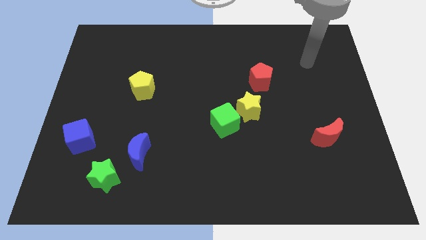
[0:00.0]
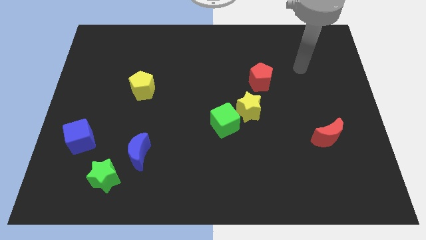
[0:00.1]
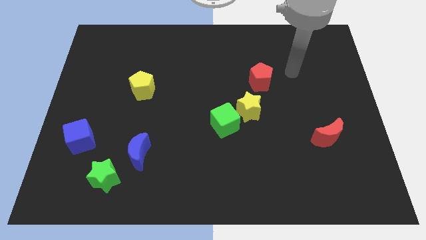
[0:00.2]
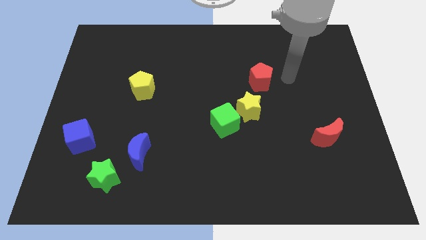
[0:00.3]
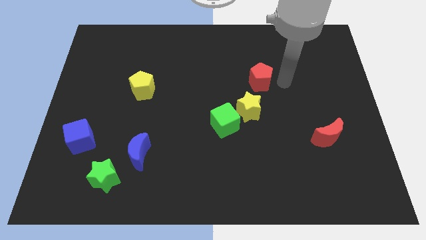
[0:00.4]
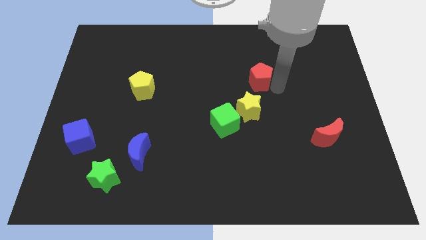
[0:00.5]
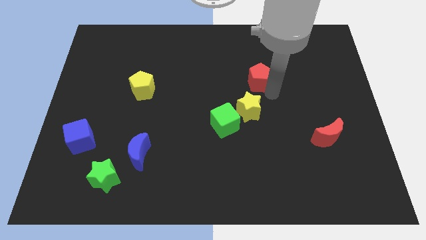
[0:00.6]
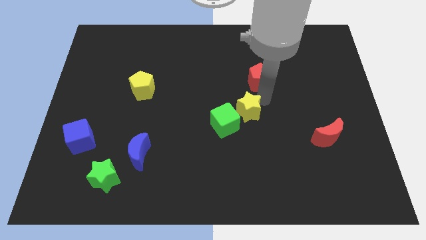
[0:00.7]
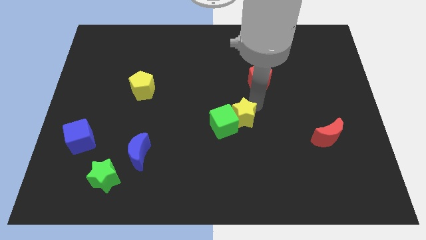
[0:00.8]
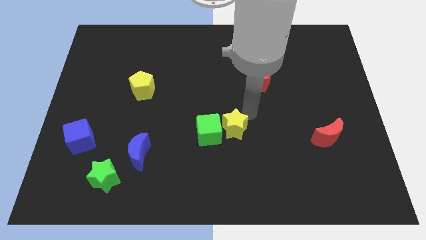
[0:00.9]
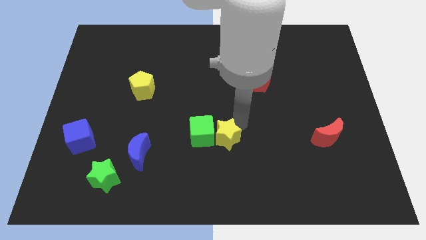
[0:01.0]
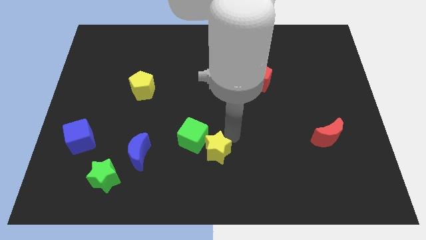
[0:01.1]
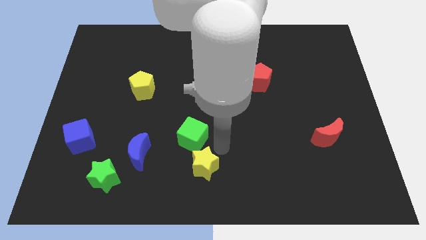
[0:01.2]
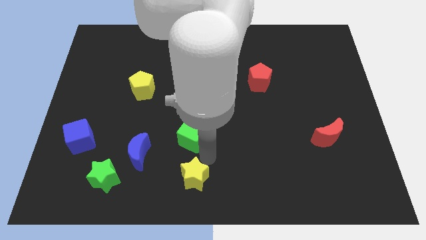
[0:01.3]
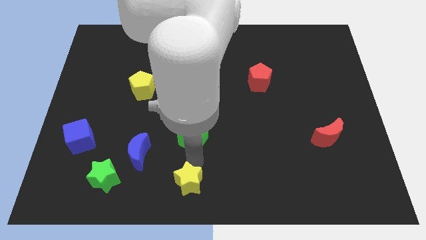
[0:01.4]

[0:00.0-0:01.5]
pull the green cube apart from the yellow star

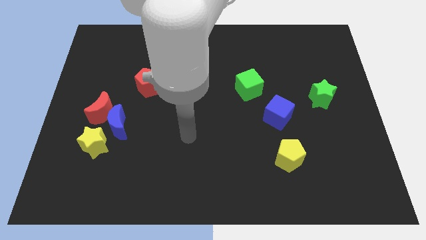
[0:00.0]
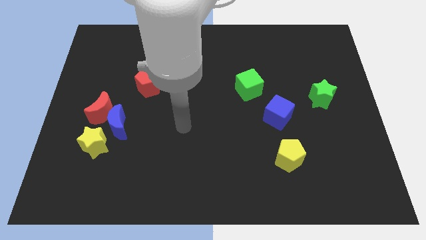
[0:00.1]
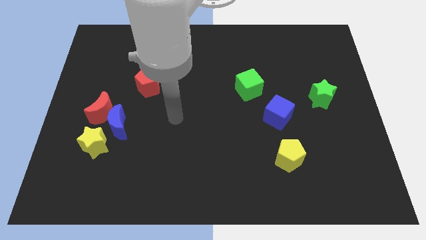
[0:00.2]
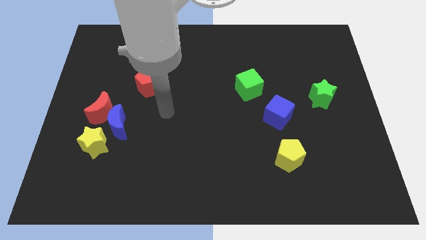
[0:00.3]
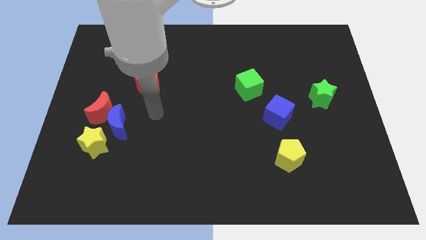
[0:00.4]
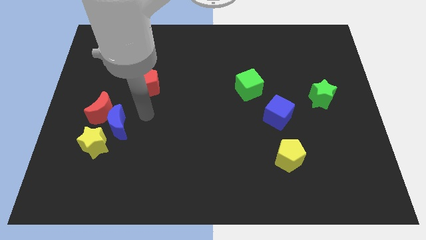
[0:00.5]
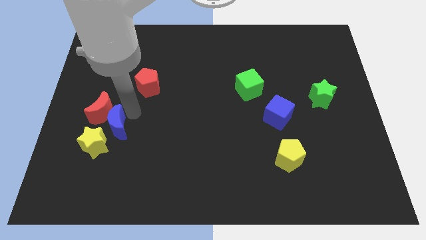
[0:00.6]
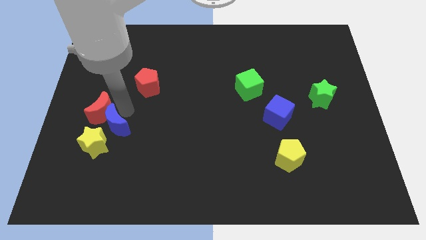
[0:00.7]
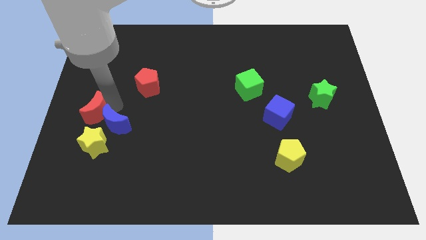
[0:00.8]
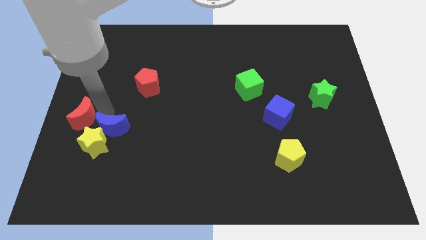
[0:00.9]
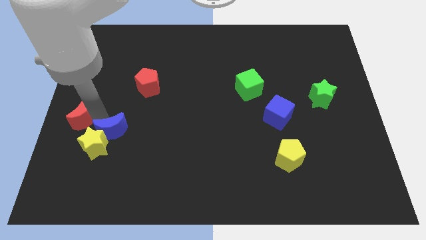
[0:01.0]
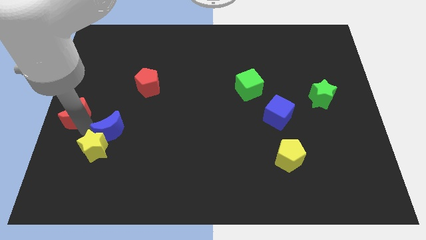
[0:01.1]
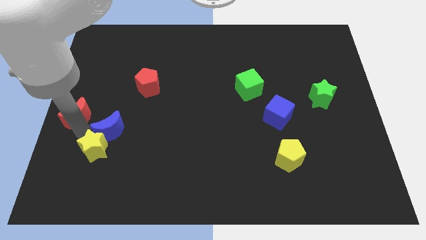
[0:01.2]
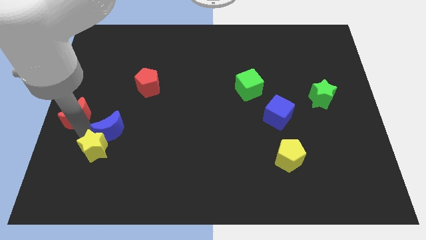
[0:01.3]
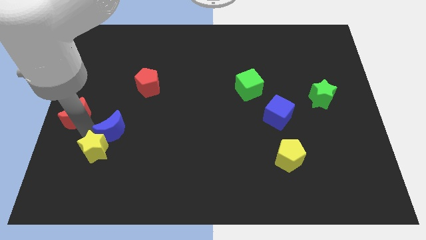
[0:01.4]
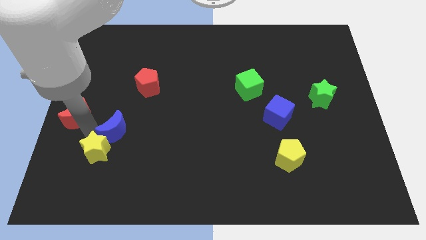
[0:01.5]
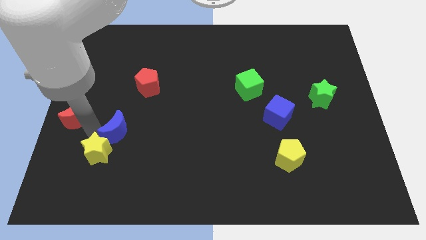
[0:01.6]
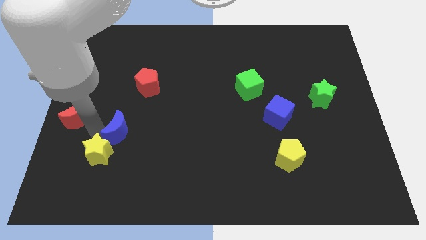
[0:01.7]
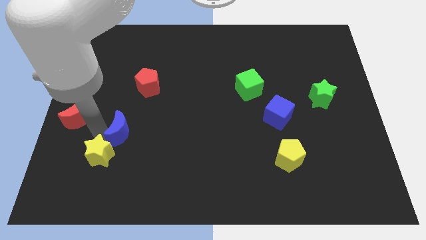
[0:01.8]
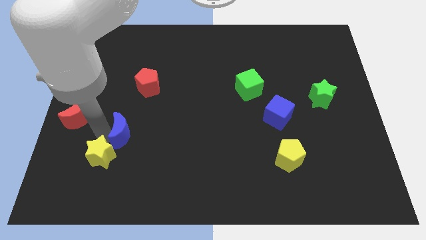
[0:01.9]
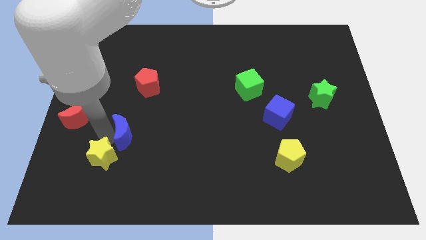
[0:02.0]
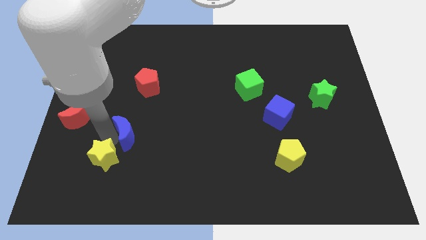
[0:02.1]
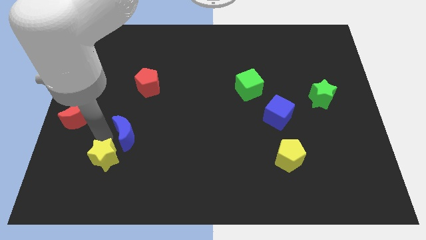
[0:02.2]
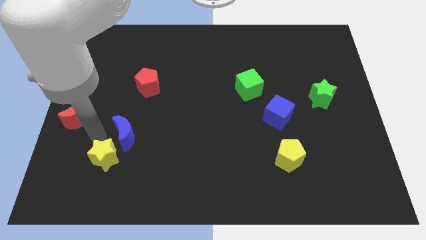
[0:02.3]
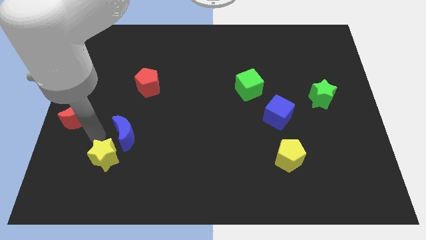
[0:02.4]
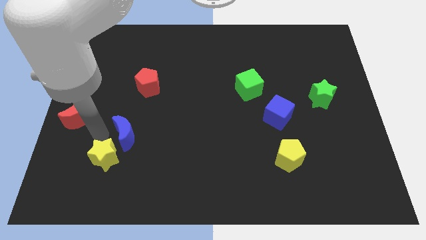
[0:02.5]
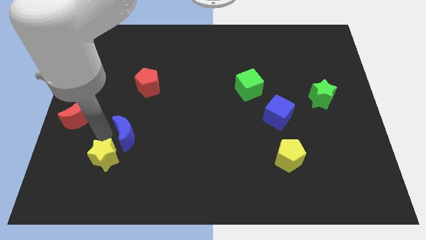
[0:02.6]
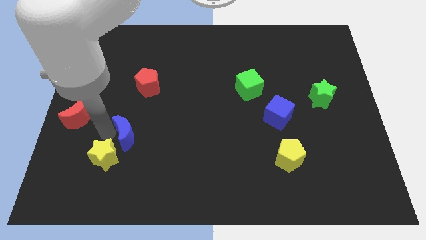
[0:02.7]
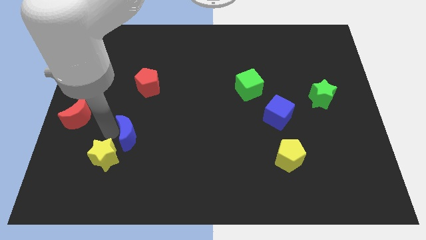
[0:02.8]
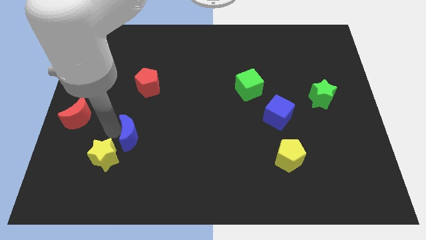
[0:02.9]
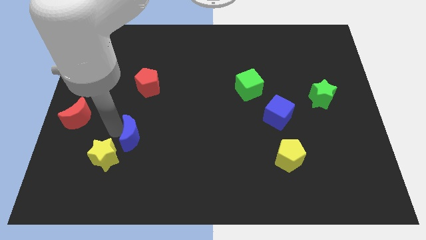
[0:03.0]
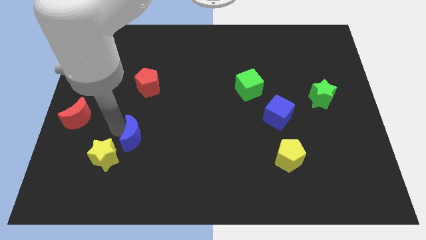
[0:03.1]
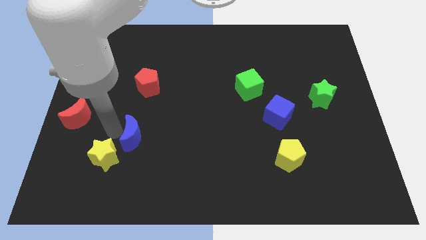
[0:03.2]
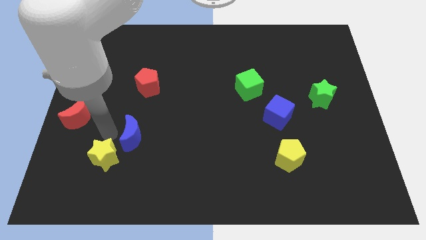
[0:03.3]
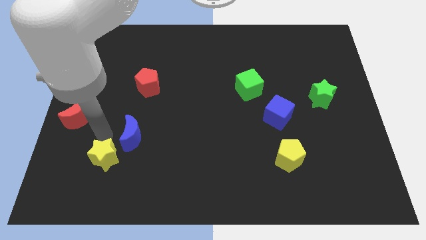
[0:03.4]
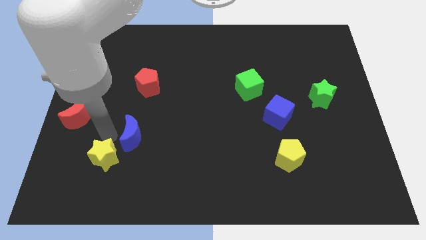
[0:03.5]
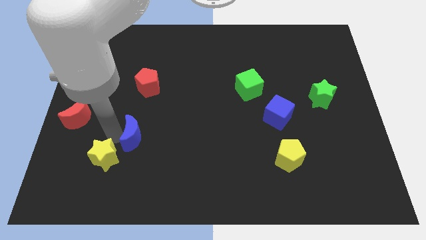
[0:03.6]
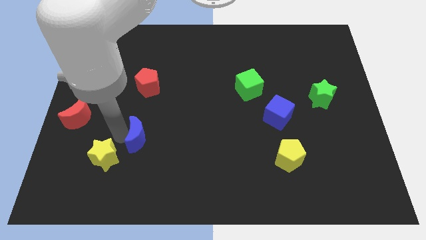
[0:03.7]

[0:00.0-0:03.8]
separate the blue moon from the red moon and yellow star

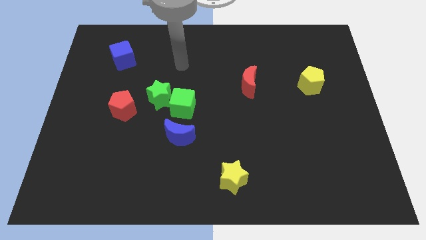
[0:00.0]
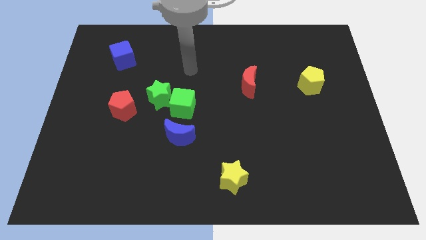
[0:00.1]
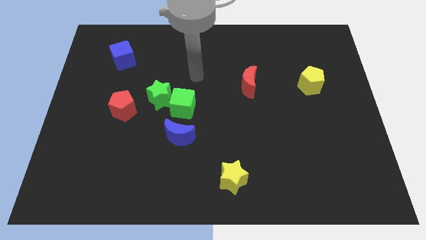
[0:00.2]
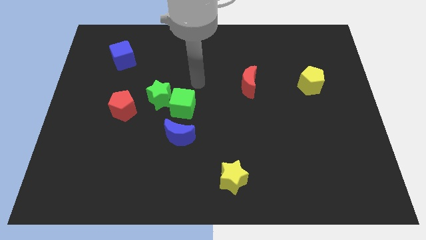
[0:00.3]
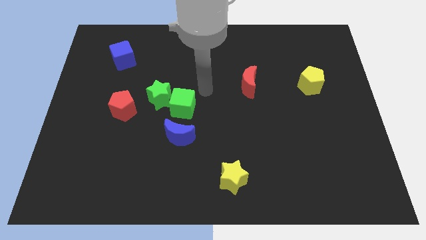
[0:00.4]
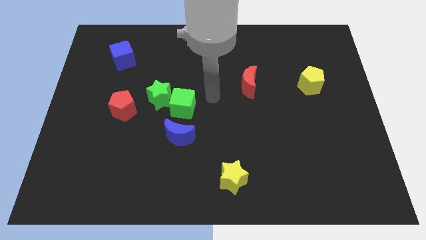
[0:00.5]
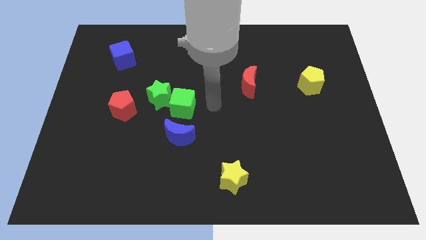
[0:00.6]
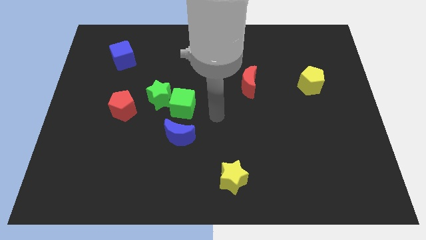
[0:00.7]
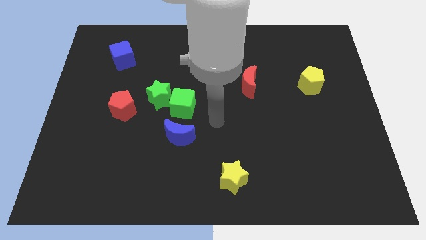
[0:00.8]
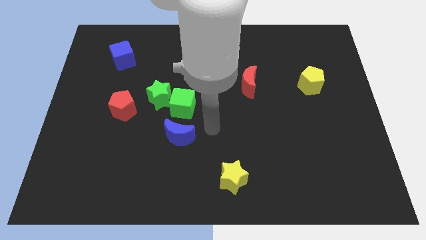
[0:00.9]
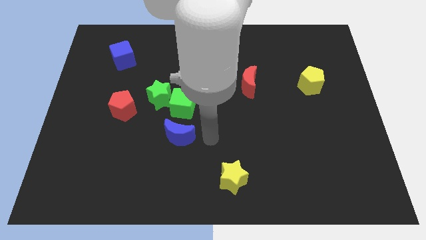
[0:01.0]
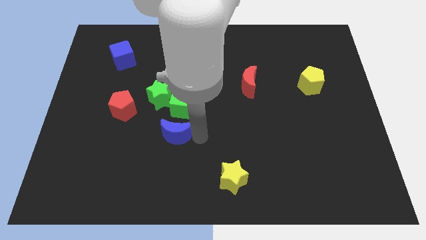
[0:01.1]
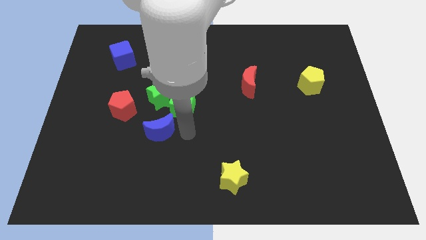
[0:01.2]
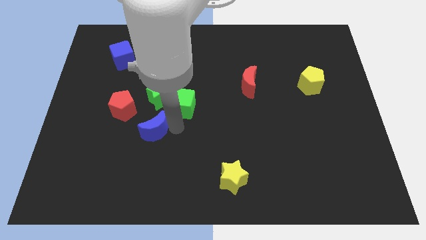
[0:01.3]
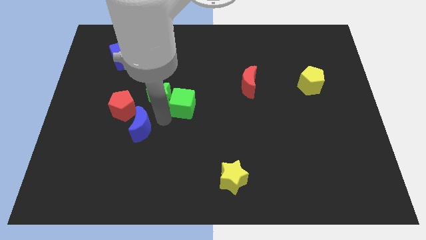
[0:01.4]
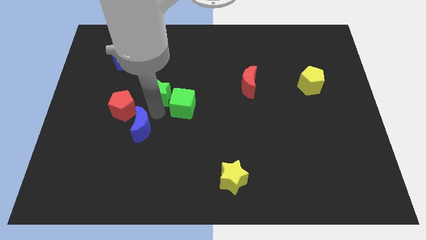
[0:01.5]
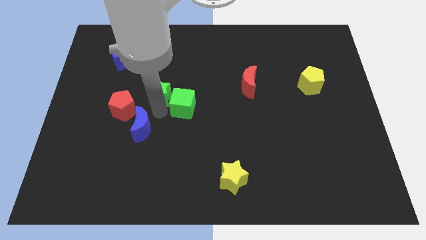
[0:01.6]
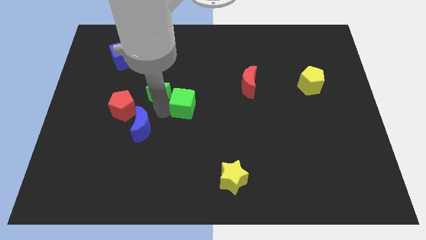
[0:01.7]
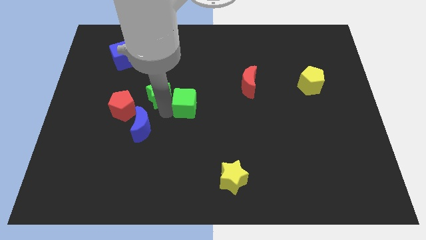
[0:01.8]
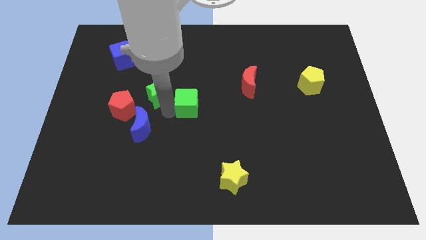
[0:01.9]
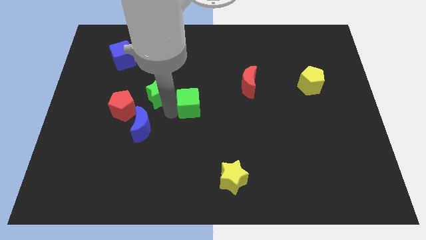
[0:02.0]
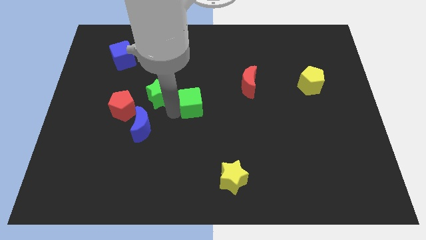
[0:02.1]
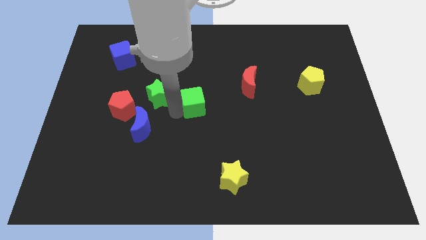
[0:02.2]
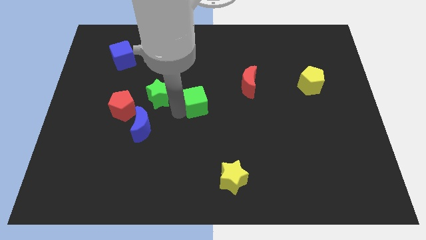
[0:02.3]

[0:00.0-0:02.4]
separate the green cube from the green star and blue moon

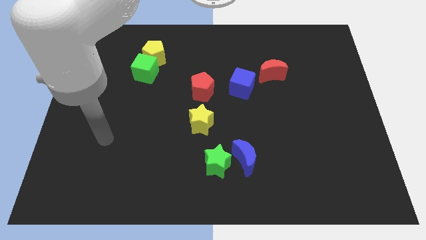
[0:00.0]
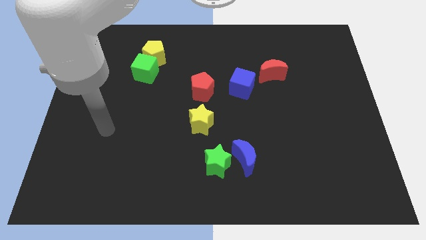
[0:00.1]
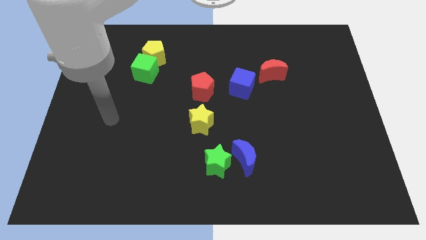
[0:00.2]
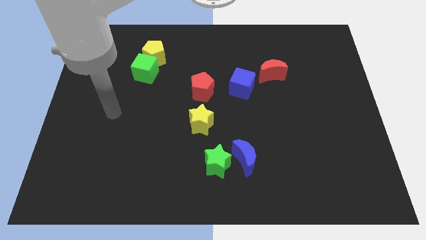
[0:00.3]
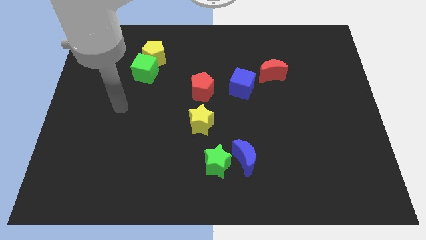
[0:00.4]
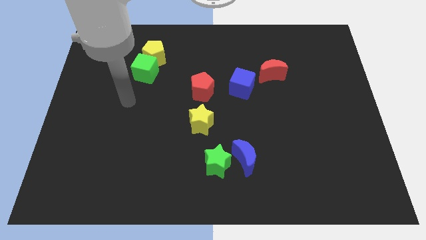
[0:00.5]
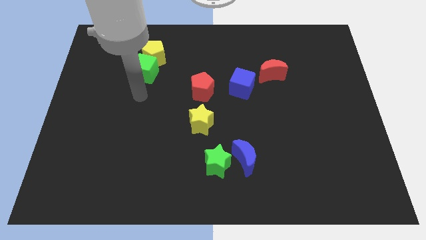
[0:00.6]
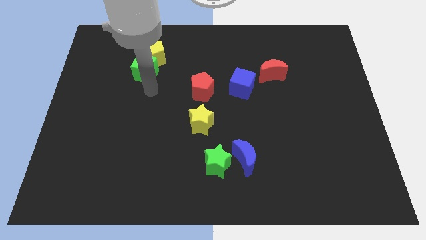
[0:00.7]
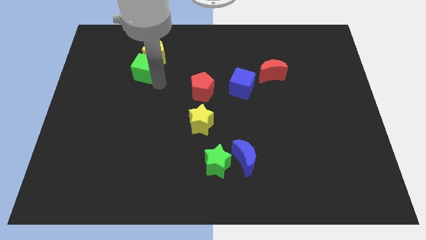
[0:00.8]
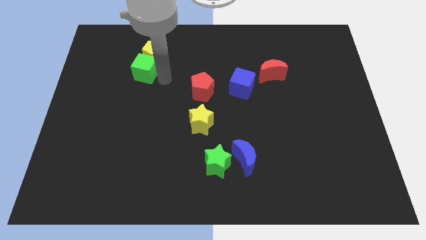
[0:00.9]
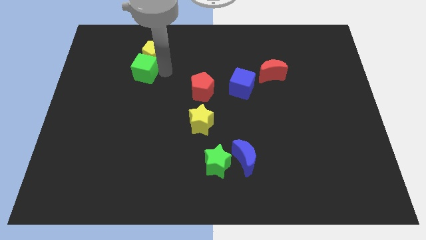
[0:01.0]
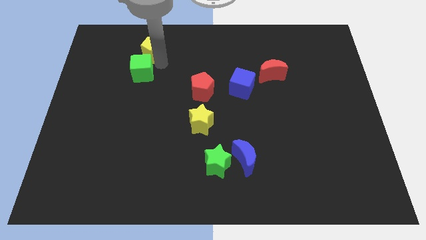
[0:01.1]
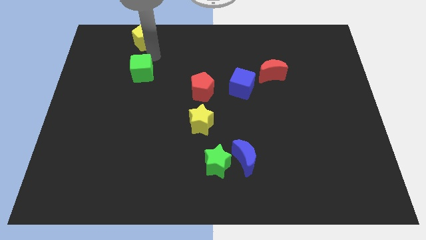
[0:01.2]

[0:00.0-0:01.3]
move the green cube away from the yellow pentagon

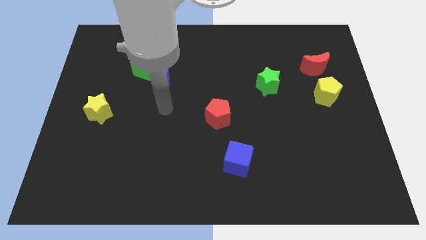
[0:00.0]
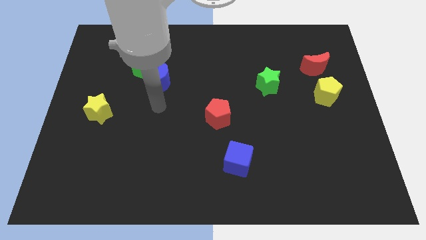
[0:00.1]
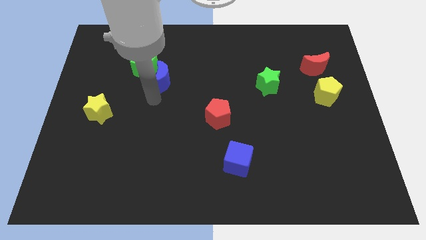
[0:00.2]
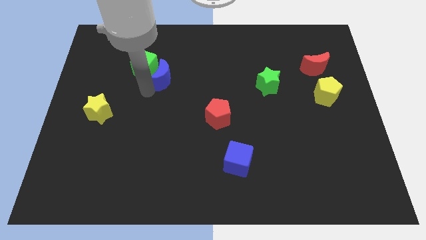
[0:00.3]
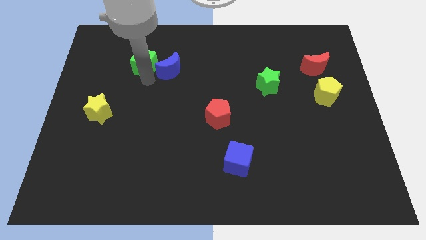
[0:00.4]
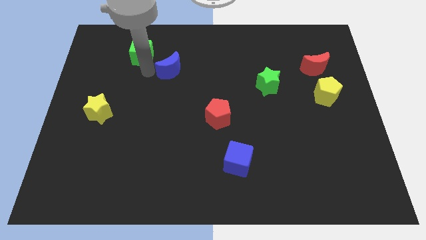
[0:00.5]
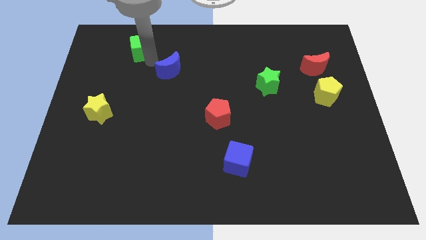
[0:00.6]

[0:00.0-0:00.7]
separate the blue moon from the green cube
